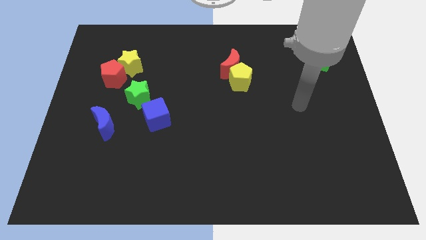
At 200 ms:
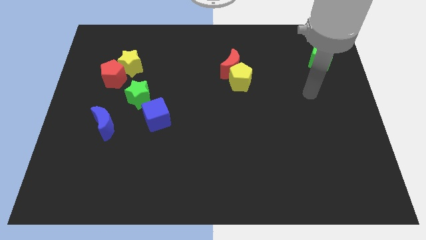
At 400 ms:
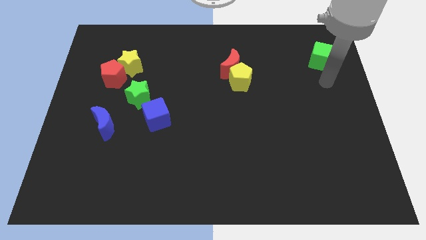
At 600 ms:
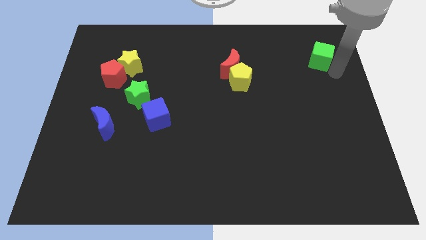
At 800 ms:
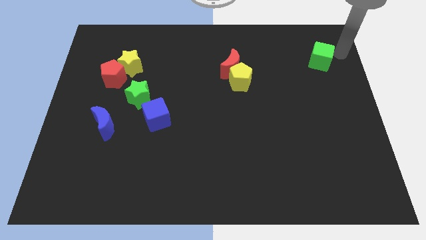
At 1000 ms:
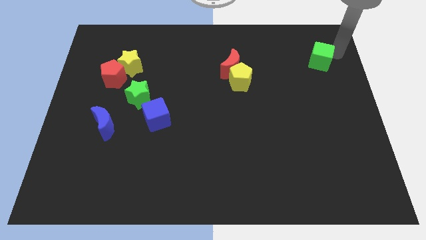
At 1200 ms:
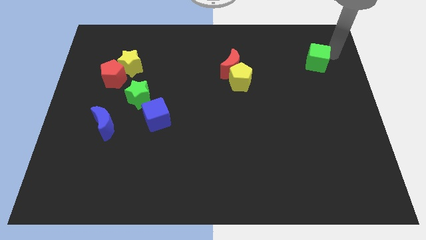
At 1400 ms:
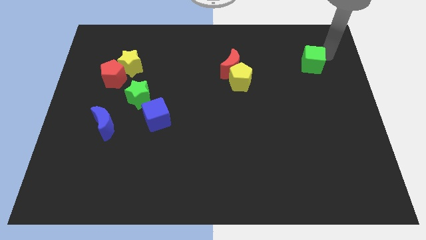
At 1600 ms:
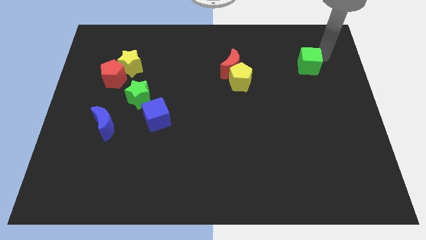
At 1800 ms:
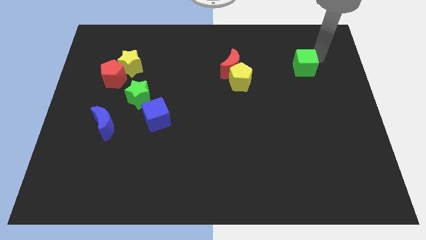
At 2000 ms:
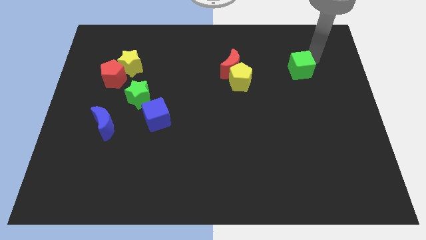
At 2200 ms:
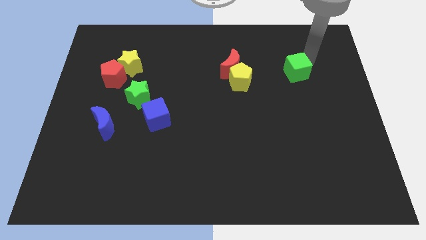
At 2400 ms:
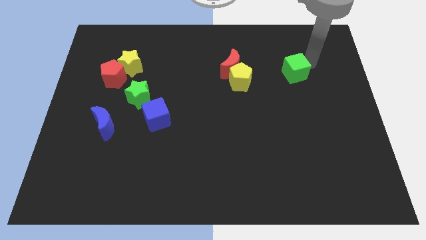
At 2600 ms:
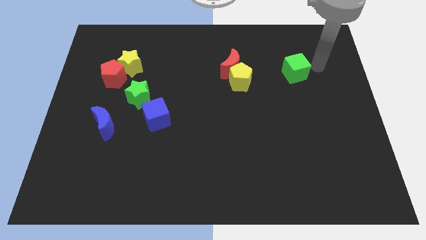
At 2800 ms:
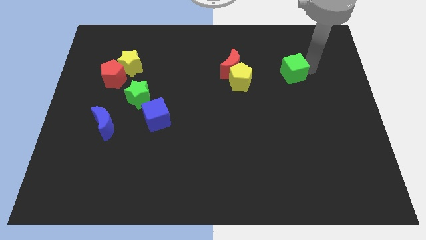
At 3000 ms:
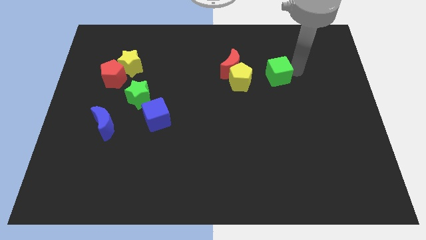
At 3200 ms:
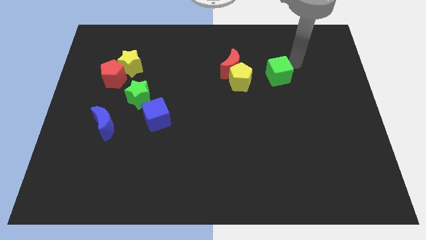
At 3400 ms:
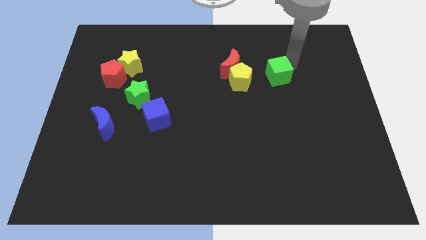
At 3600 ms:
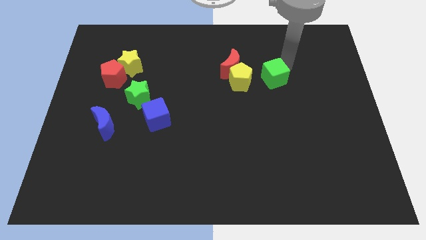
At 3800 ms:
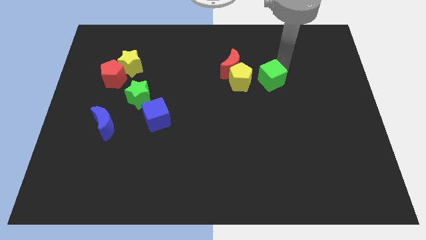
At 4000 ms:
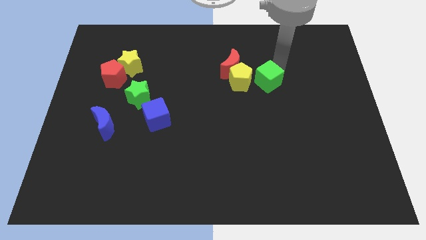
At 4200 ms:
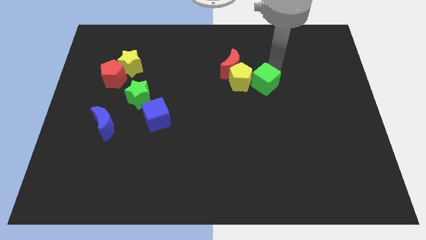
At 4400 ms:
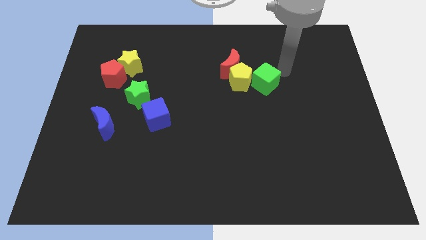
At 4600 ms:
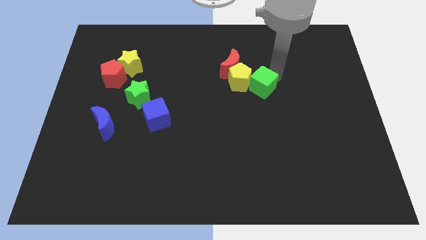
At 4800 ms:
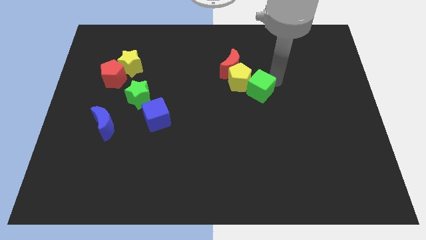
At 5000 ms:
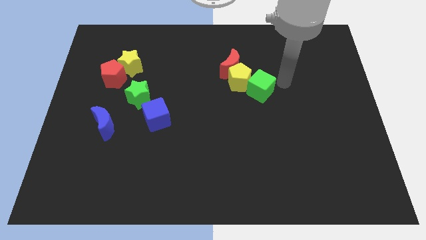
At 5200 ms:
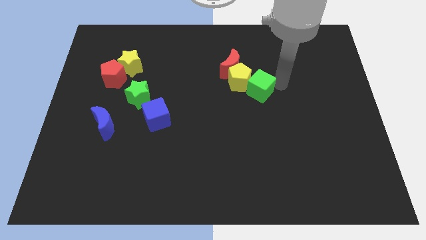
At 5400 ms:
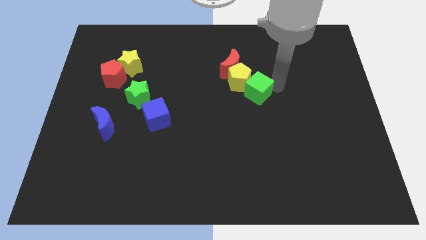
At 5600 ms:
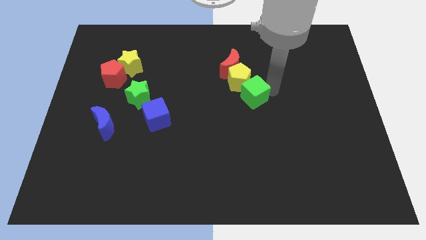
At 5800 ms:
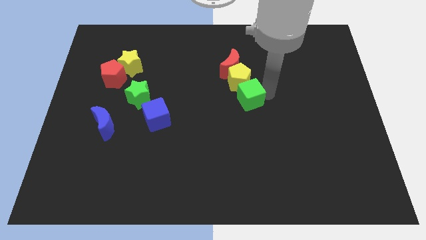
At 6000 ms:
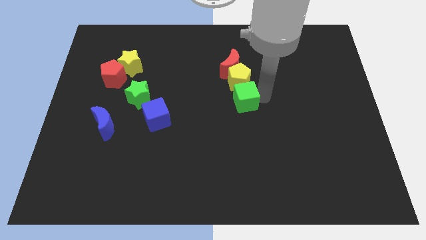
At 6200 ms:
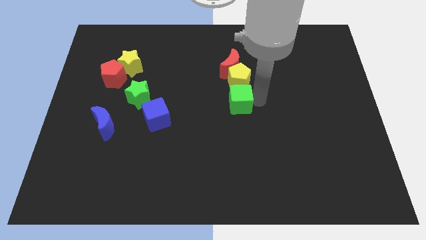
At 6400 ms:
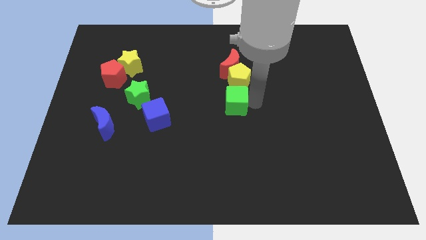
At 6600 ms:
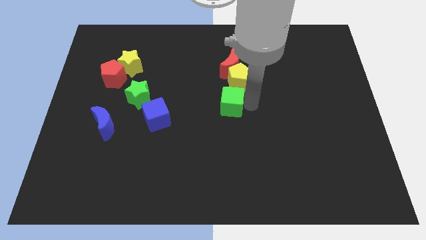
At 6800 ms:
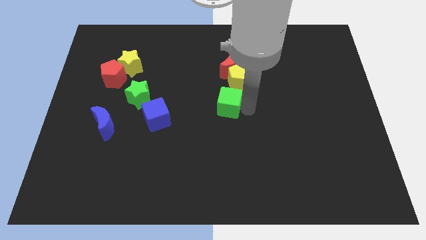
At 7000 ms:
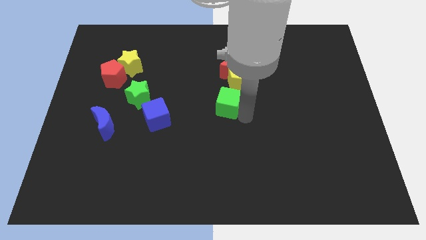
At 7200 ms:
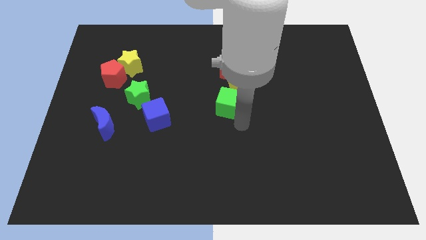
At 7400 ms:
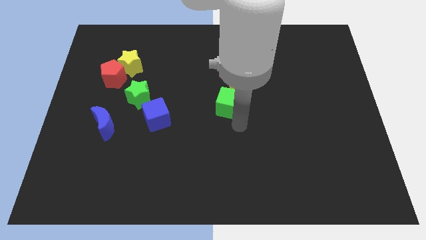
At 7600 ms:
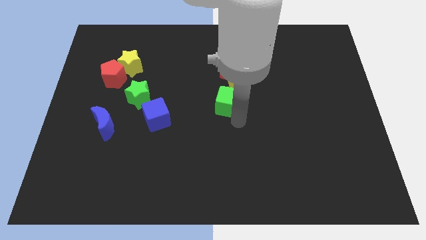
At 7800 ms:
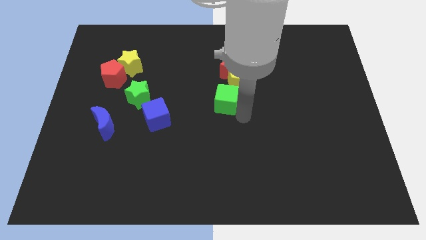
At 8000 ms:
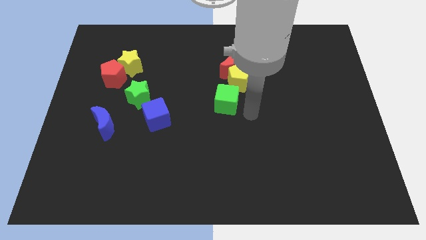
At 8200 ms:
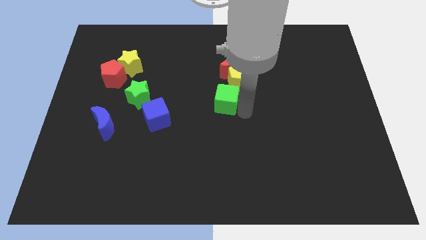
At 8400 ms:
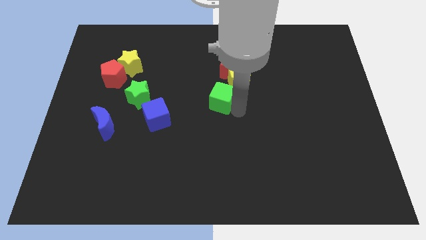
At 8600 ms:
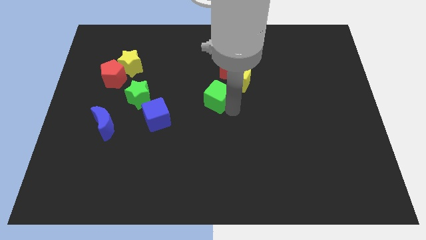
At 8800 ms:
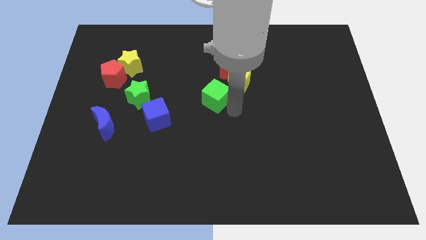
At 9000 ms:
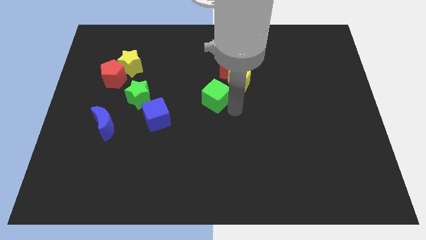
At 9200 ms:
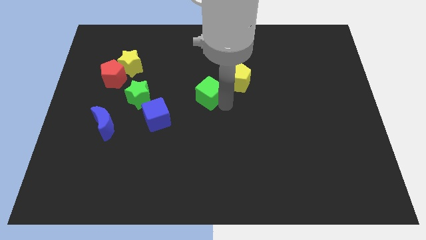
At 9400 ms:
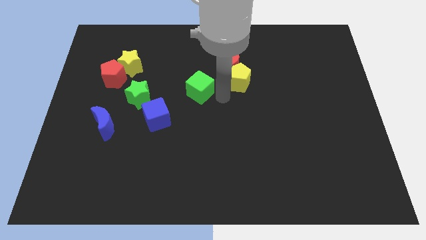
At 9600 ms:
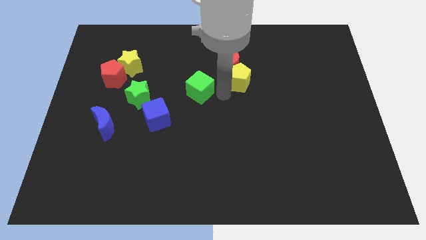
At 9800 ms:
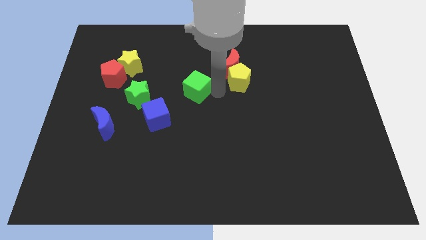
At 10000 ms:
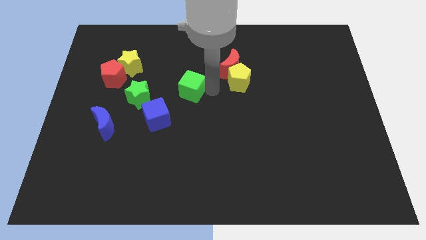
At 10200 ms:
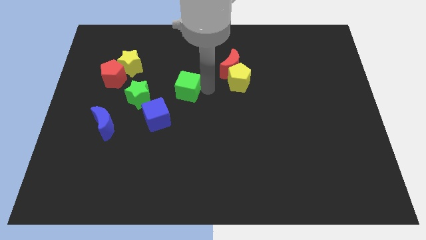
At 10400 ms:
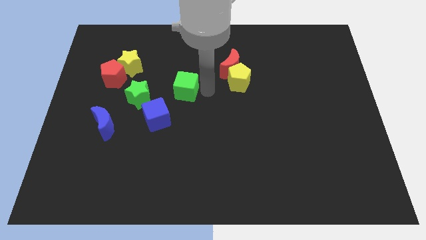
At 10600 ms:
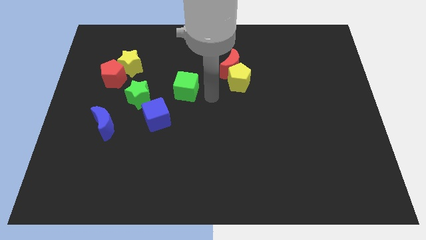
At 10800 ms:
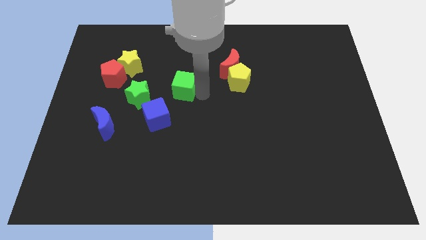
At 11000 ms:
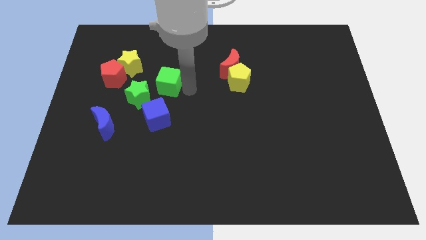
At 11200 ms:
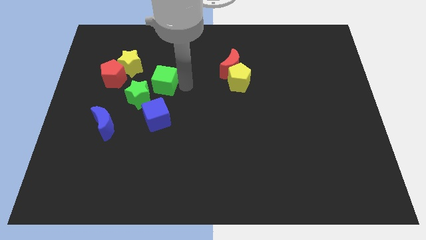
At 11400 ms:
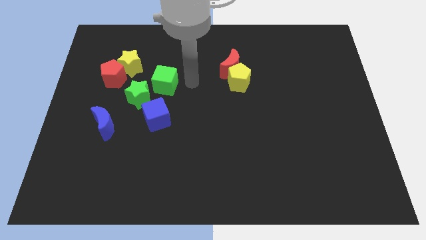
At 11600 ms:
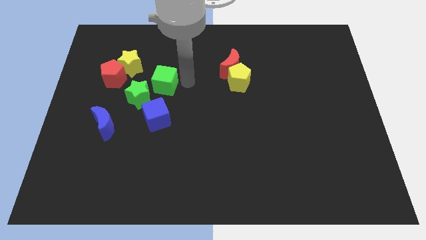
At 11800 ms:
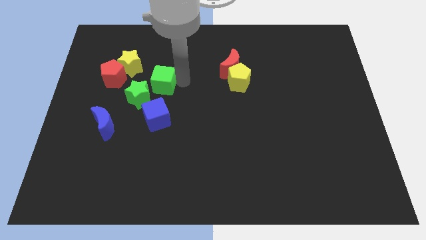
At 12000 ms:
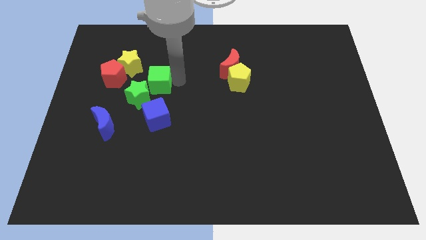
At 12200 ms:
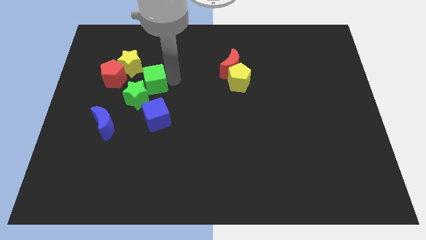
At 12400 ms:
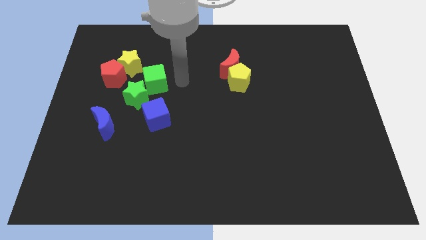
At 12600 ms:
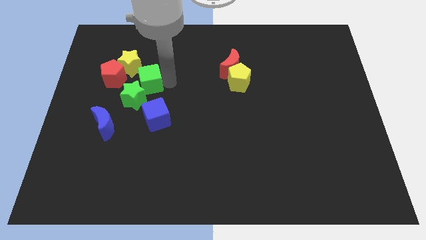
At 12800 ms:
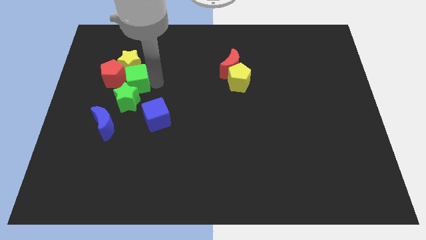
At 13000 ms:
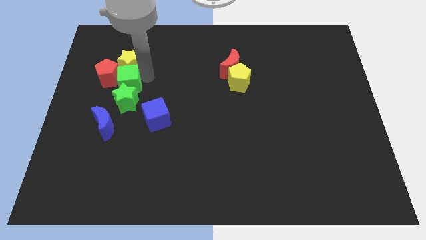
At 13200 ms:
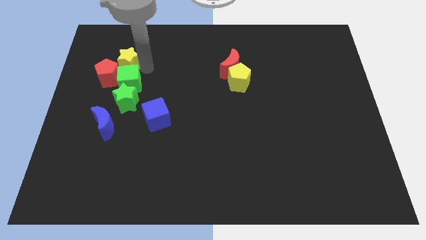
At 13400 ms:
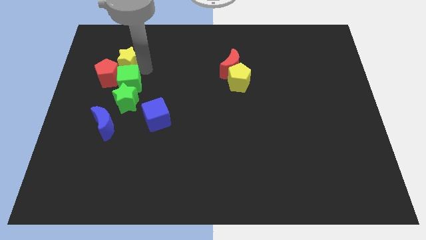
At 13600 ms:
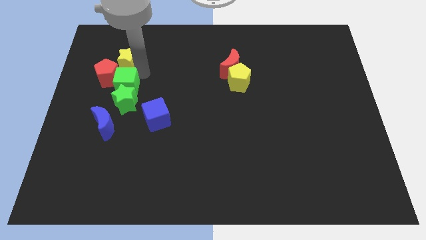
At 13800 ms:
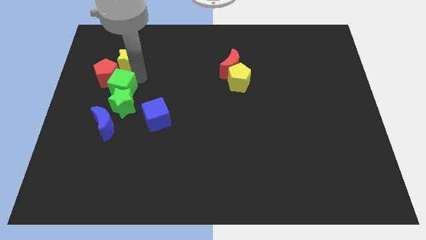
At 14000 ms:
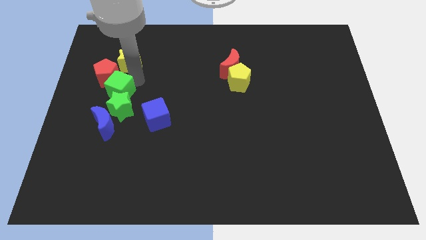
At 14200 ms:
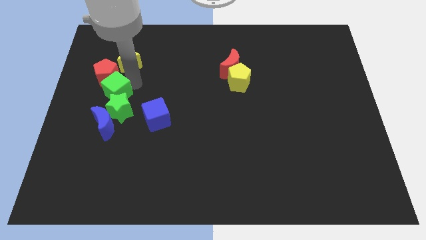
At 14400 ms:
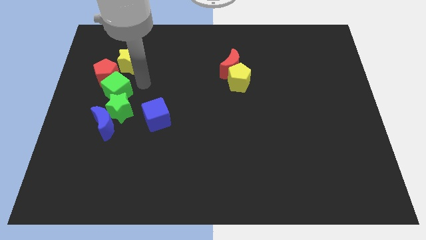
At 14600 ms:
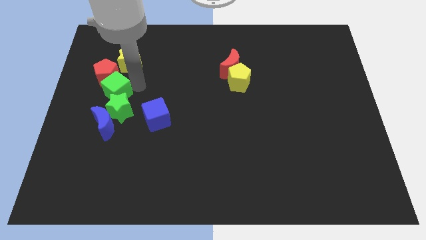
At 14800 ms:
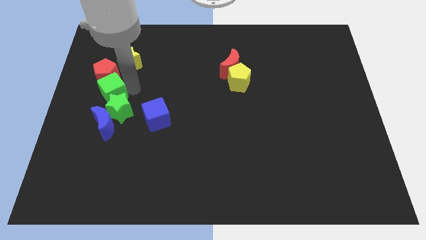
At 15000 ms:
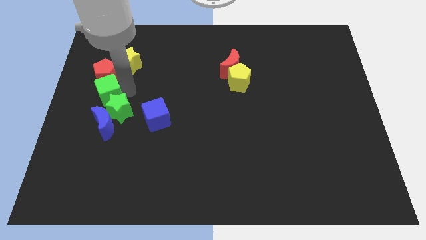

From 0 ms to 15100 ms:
slide the green cube to the left side
